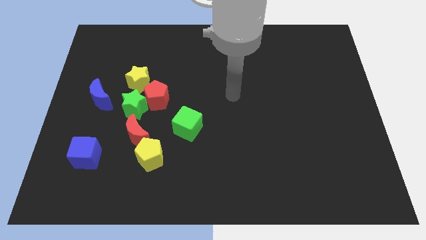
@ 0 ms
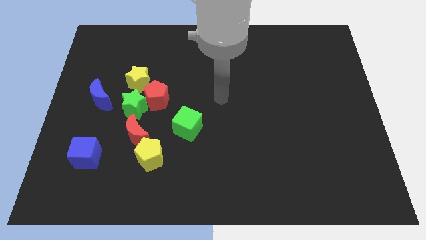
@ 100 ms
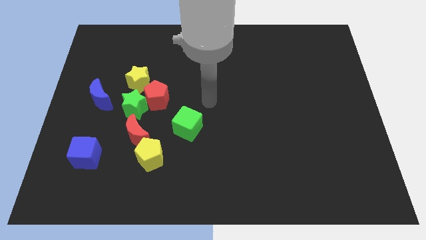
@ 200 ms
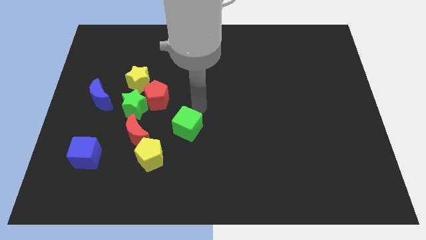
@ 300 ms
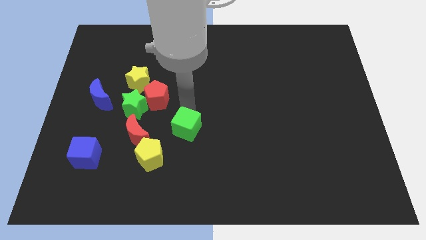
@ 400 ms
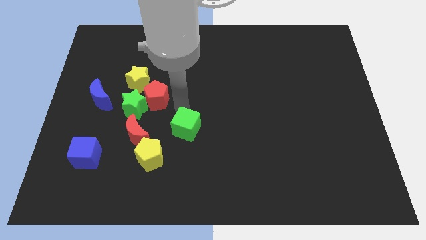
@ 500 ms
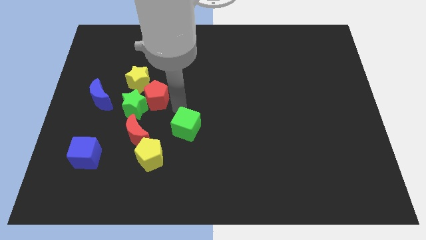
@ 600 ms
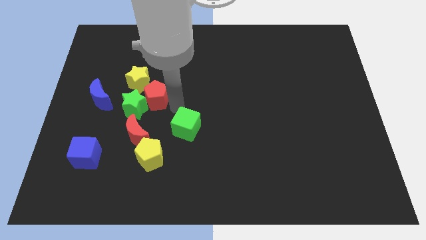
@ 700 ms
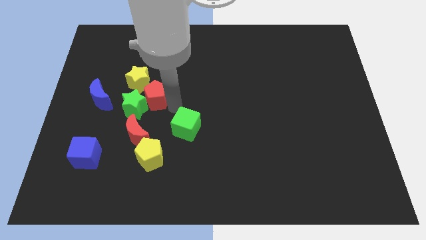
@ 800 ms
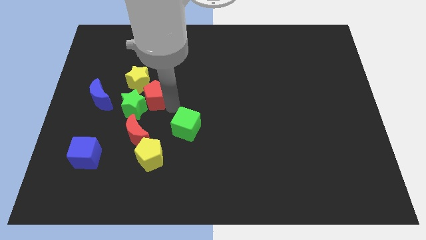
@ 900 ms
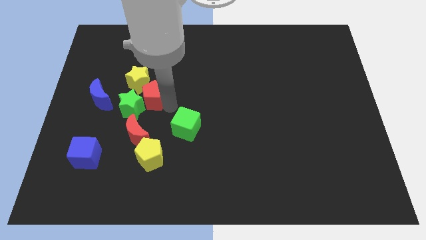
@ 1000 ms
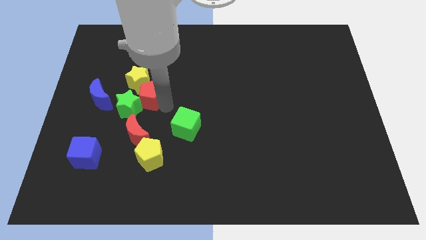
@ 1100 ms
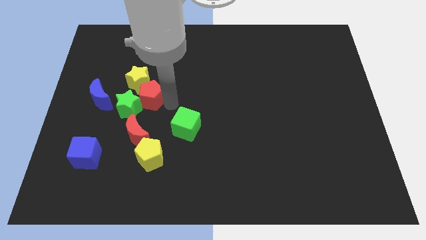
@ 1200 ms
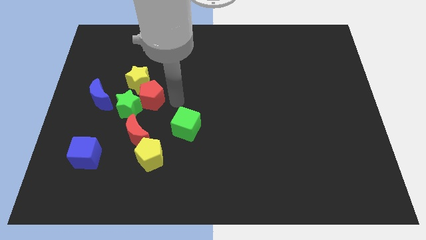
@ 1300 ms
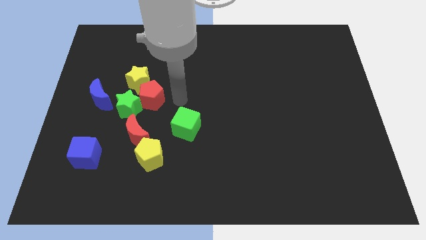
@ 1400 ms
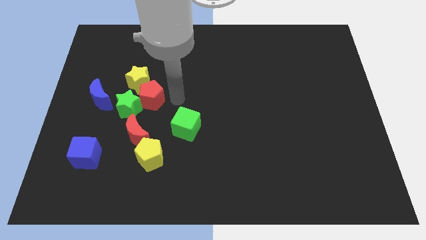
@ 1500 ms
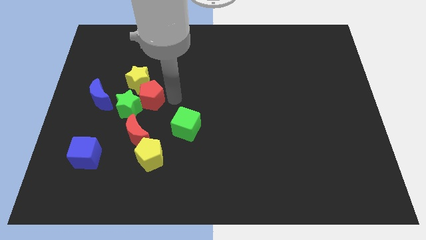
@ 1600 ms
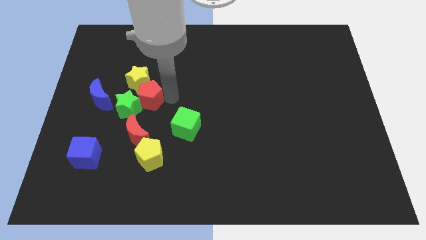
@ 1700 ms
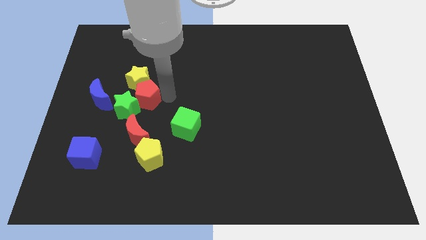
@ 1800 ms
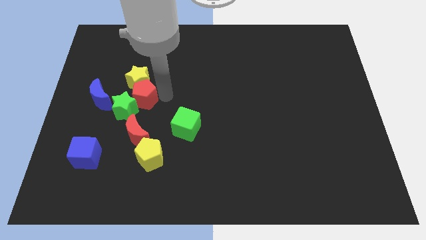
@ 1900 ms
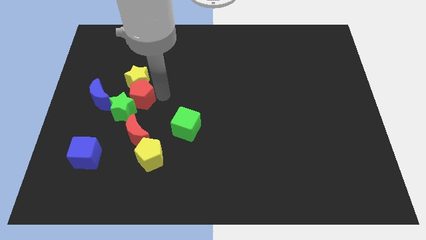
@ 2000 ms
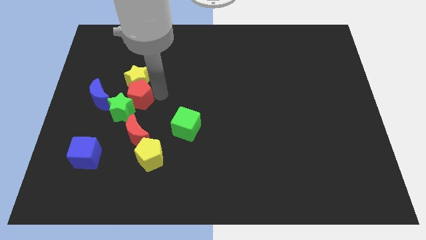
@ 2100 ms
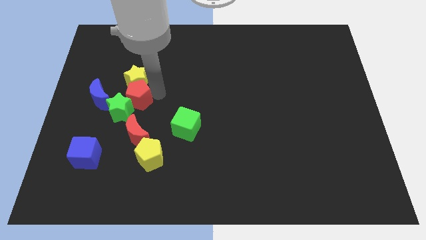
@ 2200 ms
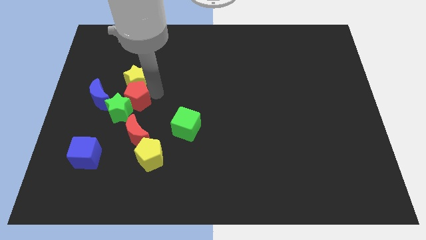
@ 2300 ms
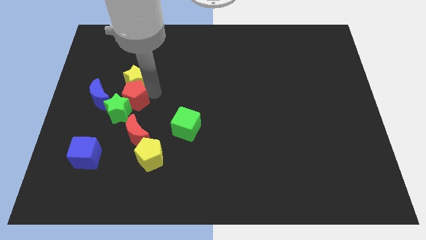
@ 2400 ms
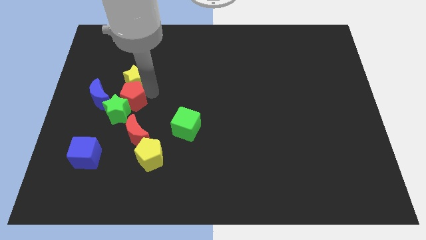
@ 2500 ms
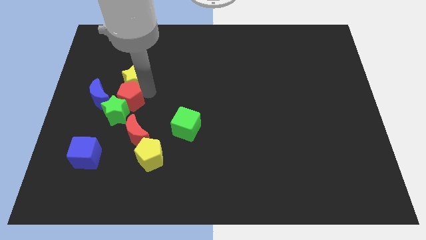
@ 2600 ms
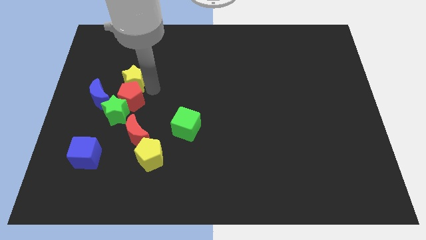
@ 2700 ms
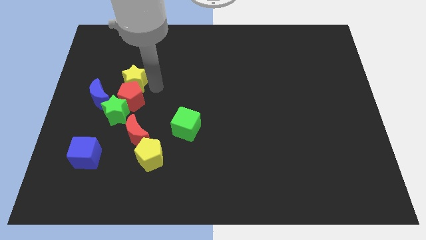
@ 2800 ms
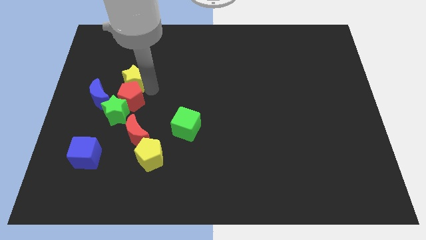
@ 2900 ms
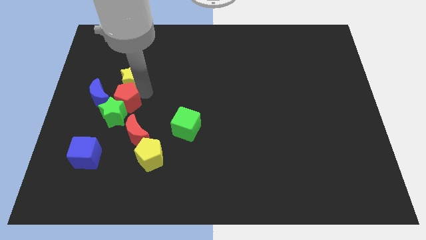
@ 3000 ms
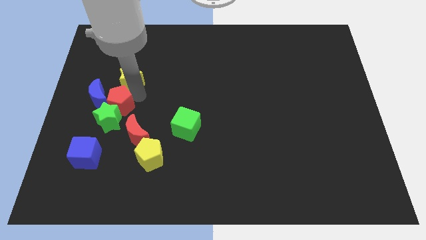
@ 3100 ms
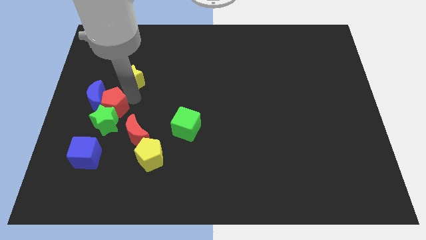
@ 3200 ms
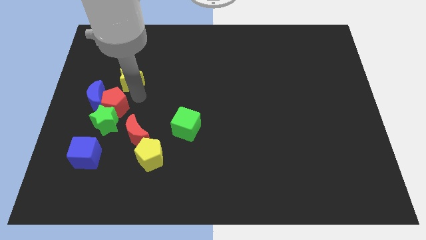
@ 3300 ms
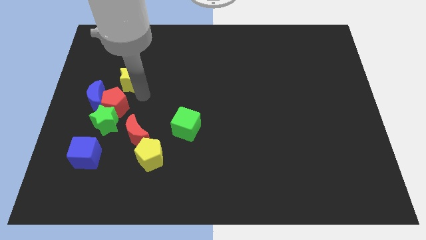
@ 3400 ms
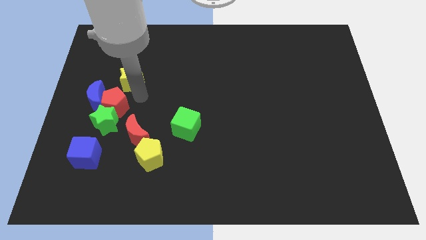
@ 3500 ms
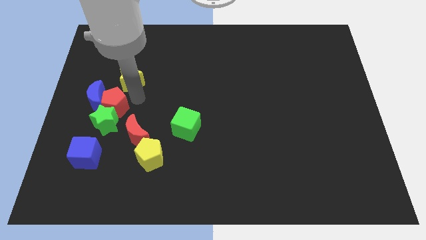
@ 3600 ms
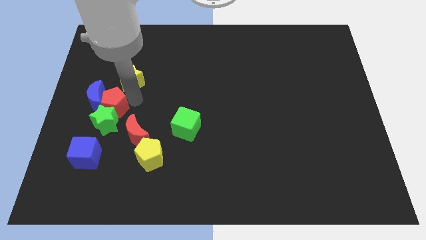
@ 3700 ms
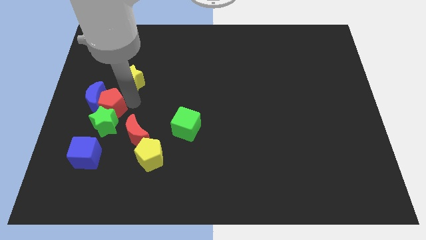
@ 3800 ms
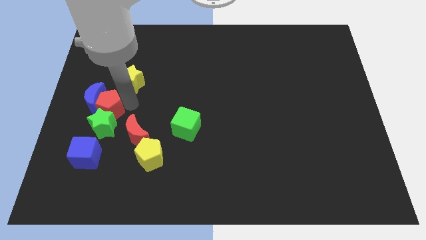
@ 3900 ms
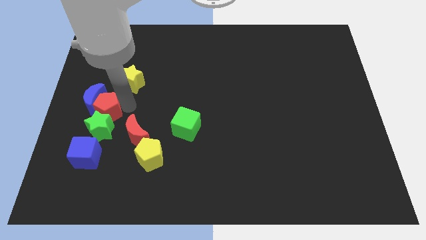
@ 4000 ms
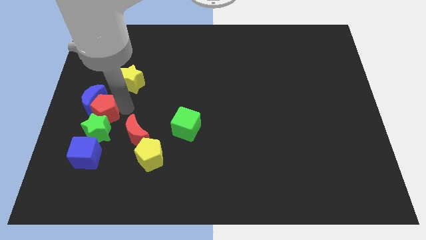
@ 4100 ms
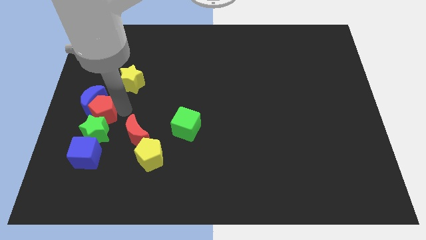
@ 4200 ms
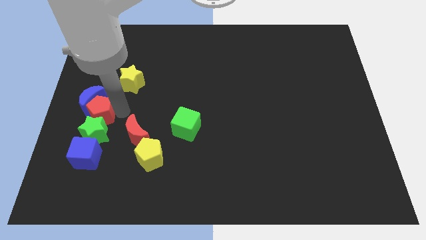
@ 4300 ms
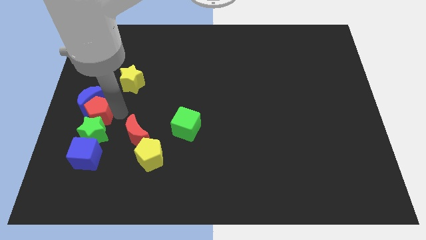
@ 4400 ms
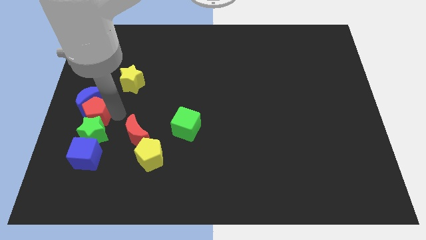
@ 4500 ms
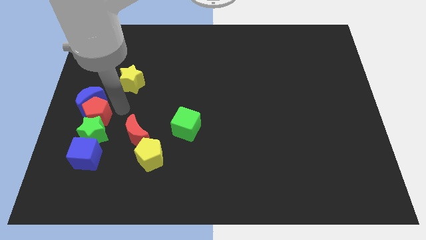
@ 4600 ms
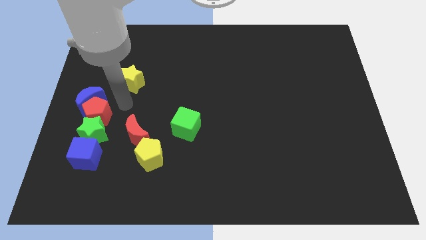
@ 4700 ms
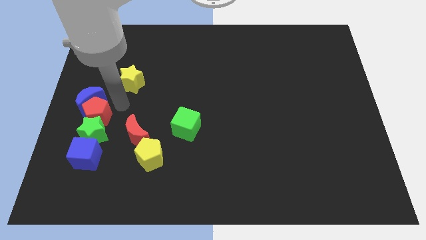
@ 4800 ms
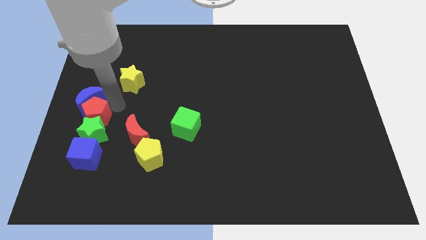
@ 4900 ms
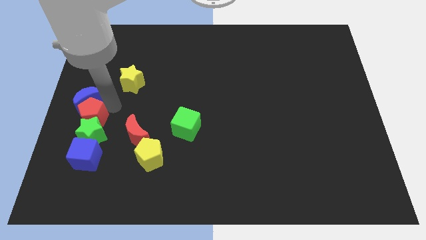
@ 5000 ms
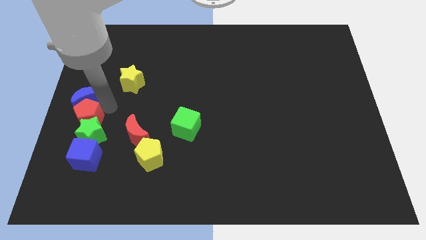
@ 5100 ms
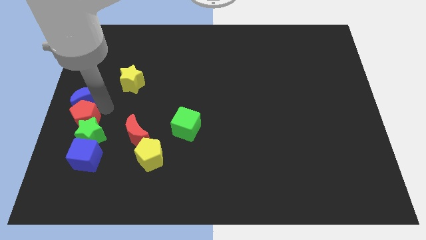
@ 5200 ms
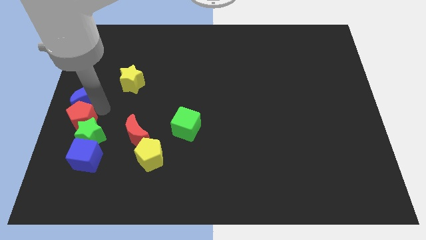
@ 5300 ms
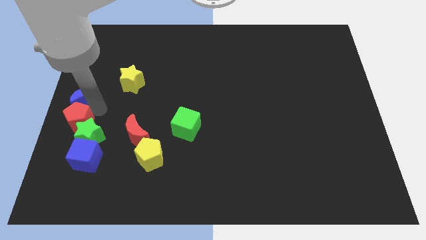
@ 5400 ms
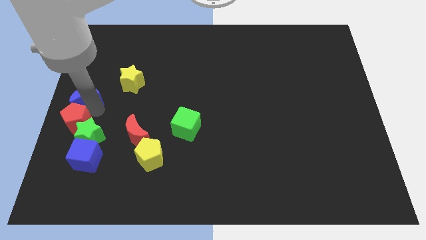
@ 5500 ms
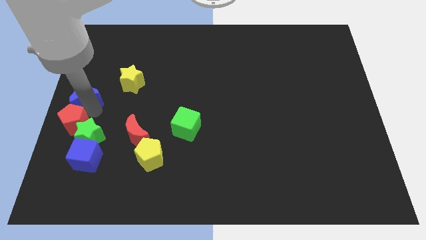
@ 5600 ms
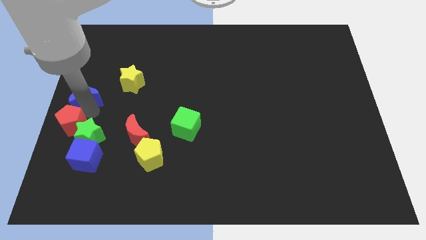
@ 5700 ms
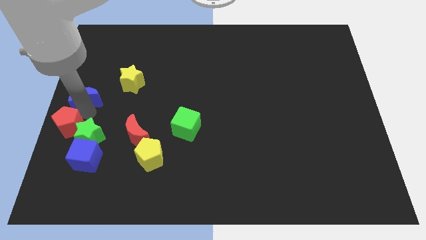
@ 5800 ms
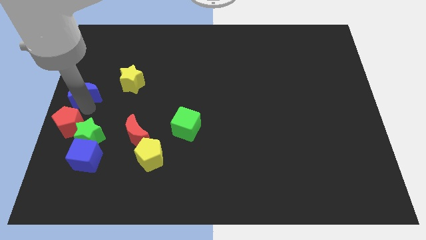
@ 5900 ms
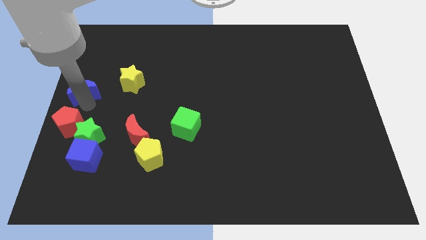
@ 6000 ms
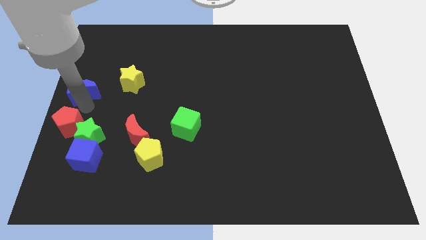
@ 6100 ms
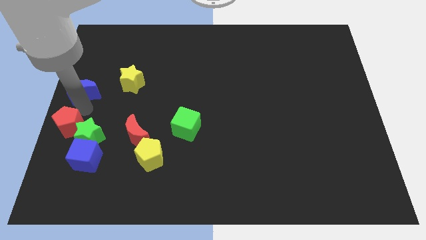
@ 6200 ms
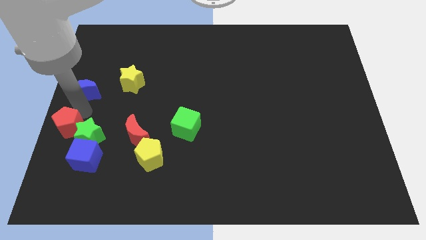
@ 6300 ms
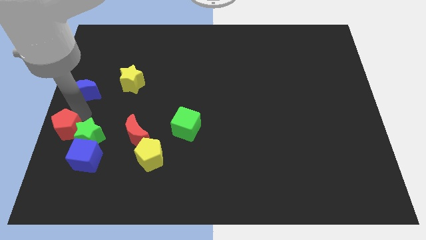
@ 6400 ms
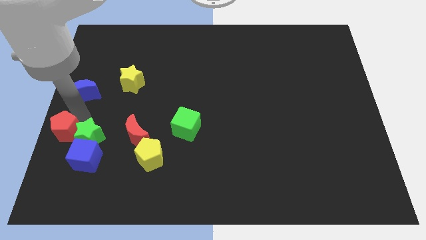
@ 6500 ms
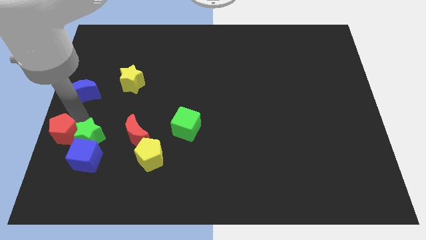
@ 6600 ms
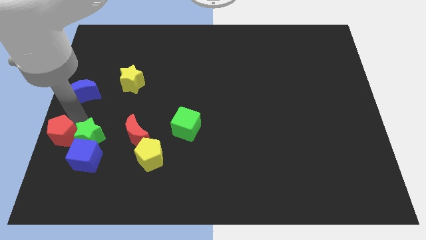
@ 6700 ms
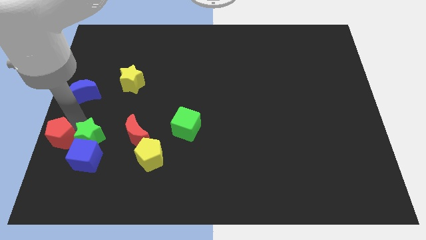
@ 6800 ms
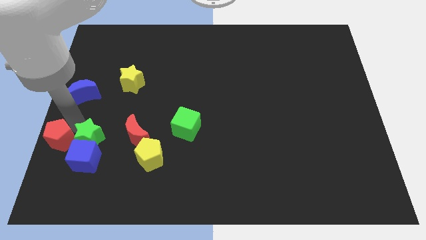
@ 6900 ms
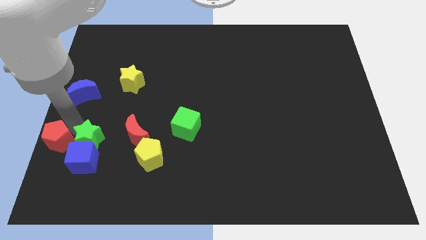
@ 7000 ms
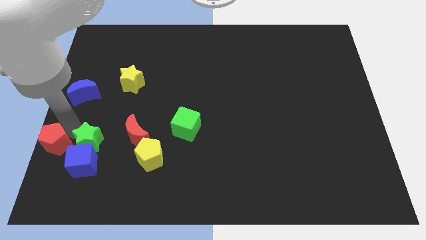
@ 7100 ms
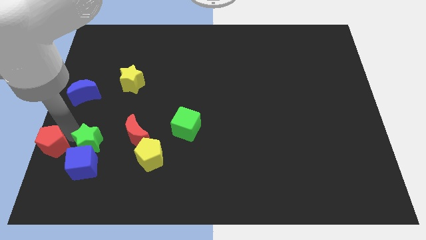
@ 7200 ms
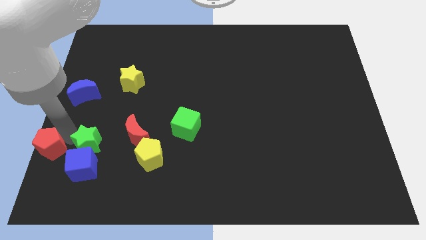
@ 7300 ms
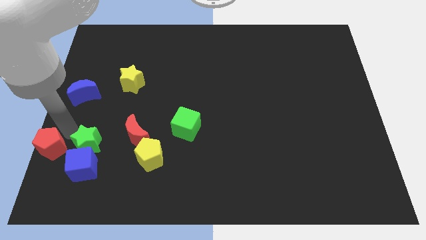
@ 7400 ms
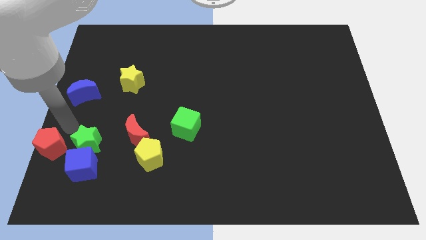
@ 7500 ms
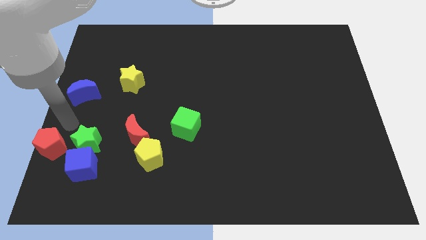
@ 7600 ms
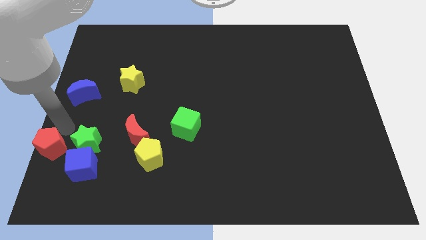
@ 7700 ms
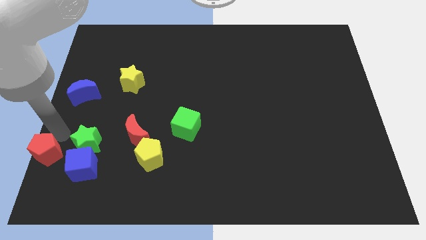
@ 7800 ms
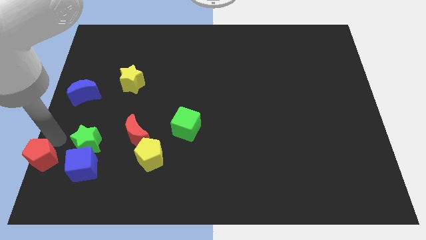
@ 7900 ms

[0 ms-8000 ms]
put the red pentagon to the bottom left of the board

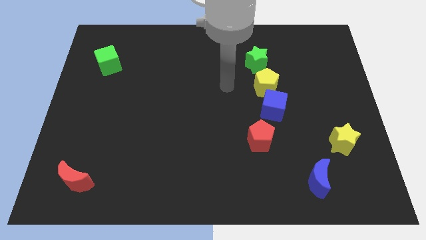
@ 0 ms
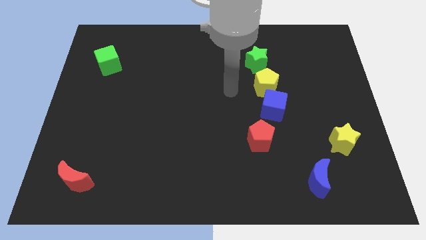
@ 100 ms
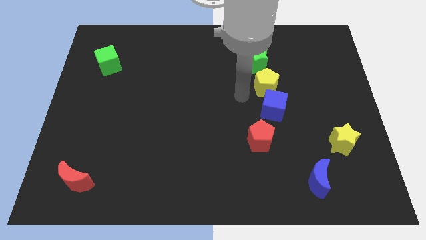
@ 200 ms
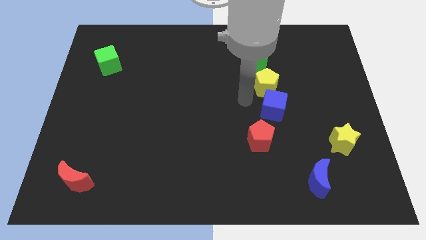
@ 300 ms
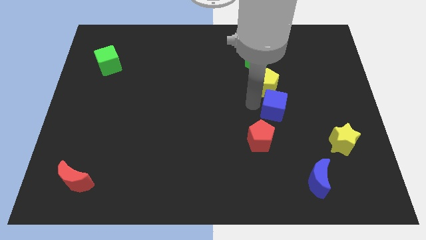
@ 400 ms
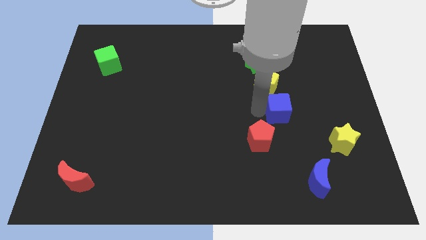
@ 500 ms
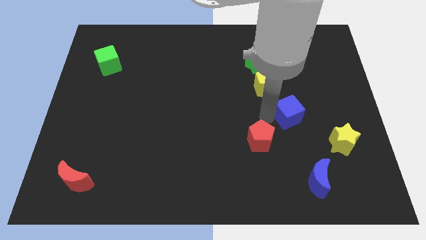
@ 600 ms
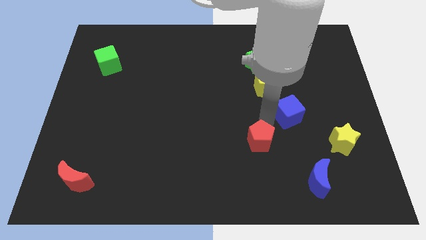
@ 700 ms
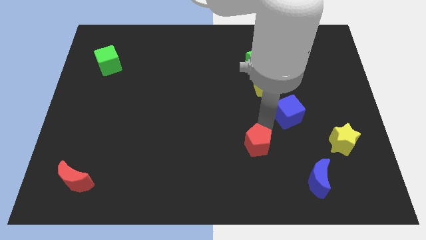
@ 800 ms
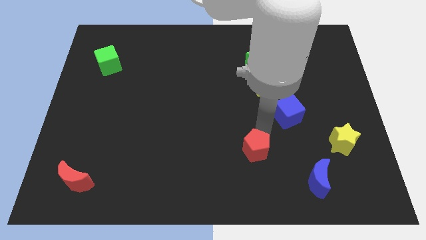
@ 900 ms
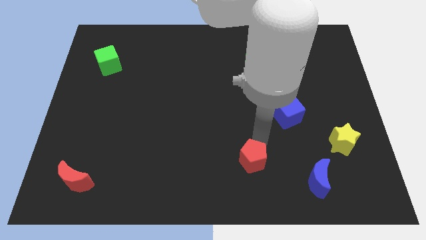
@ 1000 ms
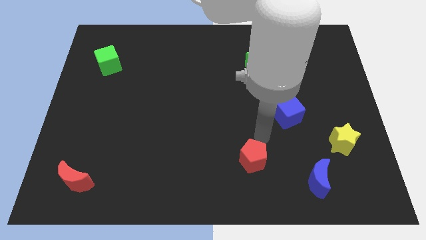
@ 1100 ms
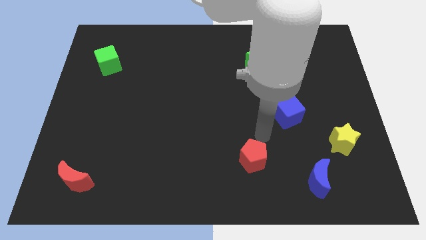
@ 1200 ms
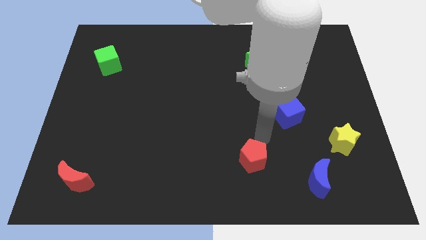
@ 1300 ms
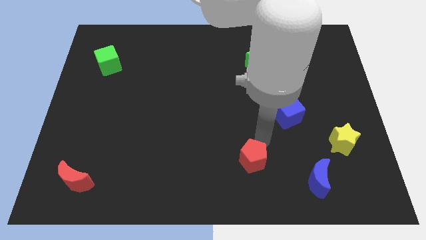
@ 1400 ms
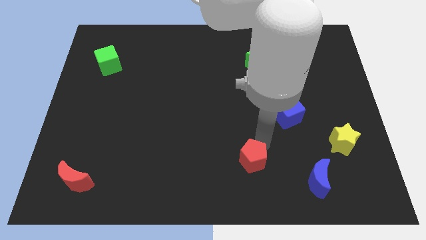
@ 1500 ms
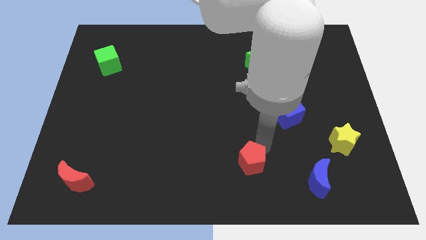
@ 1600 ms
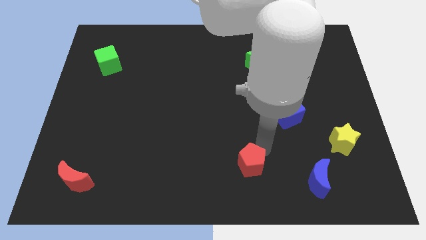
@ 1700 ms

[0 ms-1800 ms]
move the red pentagon to the bottom
